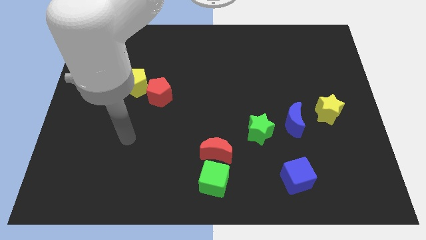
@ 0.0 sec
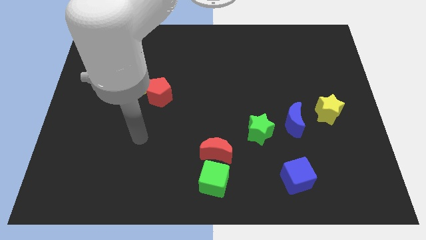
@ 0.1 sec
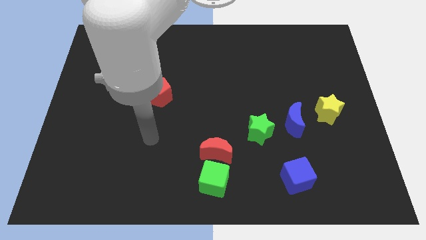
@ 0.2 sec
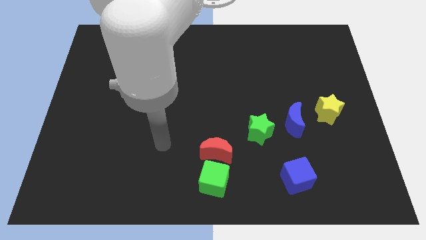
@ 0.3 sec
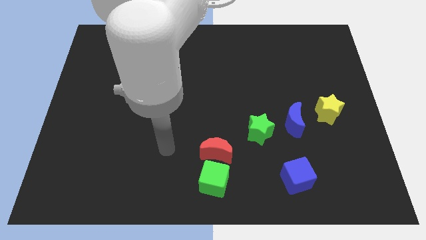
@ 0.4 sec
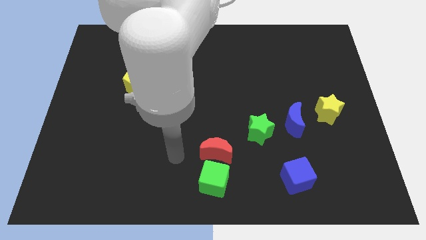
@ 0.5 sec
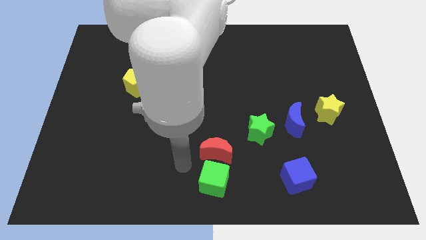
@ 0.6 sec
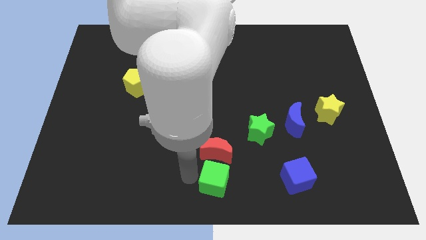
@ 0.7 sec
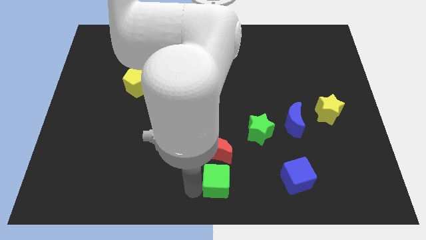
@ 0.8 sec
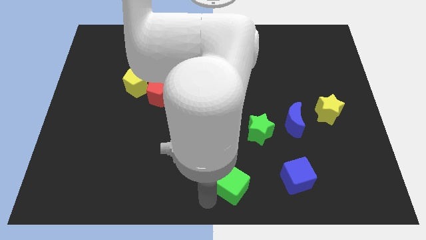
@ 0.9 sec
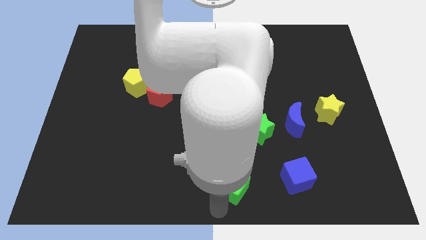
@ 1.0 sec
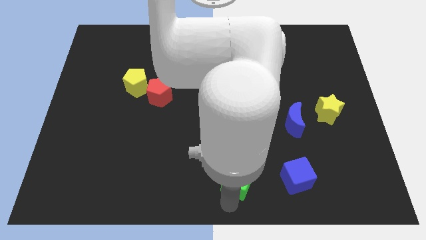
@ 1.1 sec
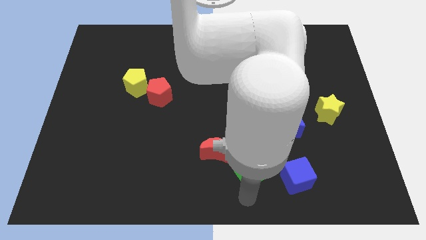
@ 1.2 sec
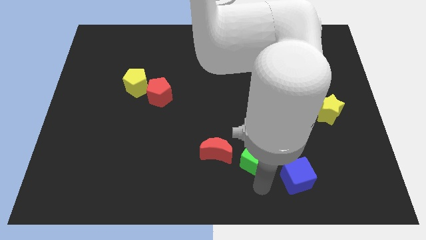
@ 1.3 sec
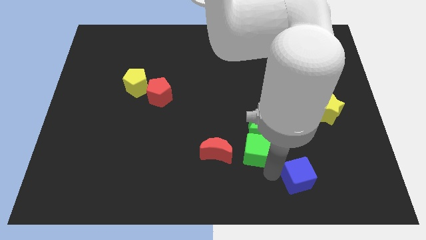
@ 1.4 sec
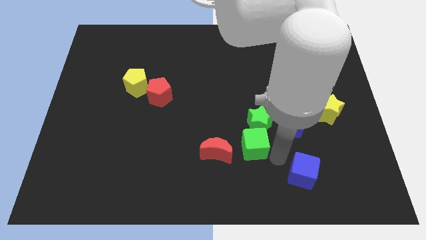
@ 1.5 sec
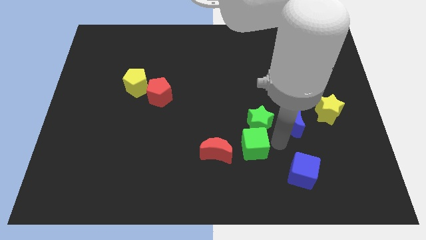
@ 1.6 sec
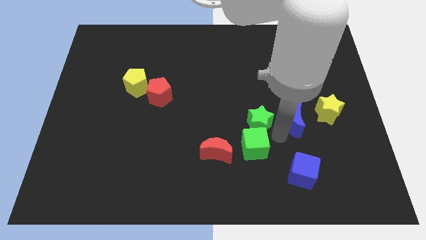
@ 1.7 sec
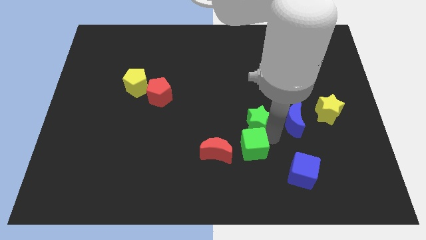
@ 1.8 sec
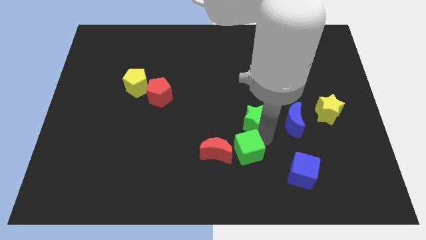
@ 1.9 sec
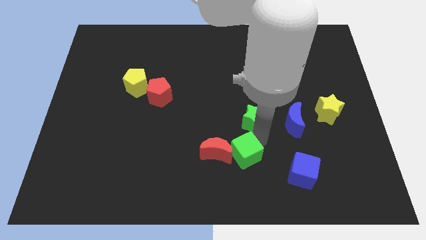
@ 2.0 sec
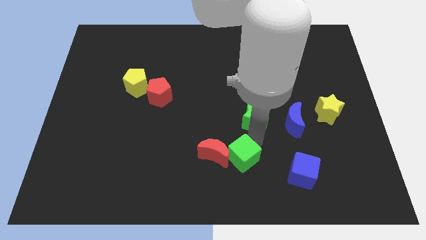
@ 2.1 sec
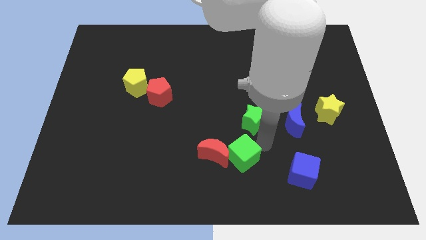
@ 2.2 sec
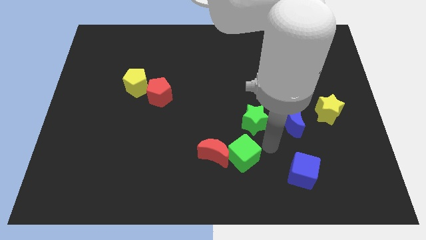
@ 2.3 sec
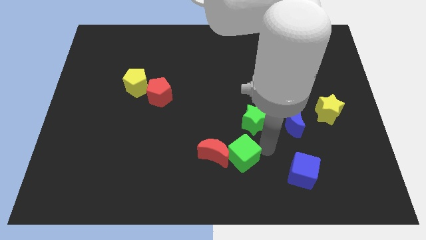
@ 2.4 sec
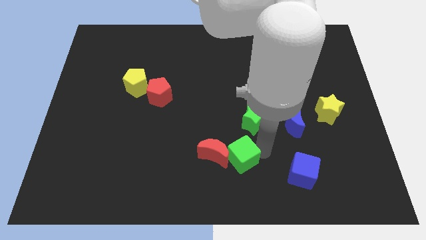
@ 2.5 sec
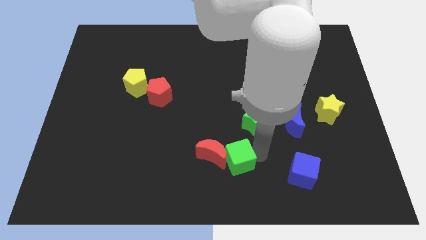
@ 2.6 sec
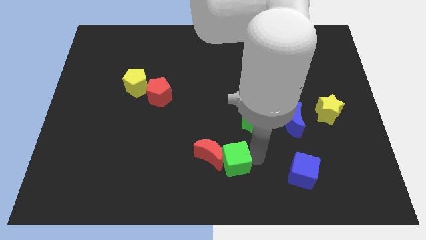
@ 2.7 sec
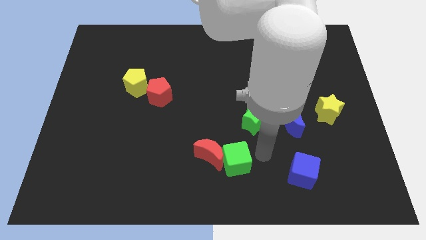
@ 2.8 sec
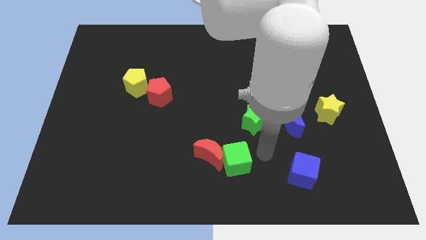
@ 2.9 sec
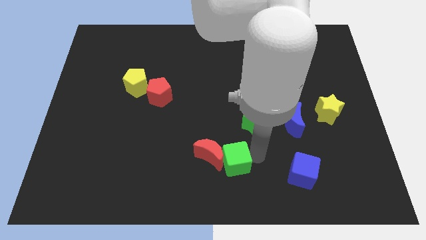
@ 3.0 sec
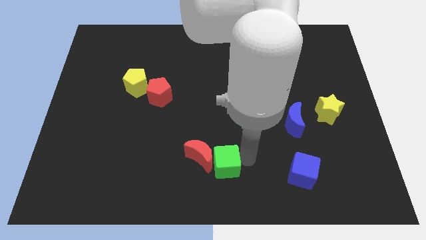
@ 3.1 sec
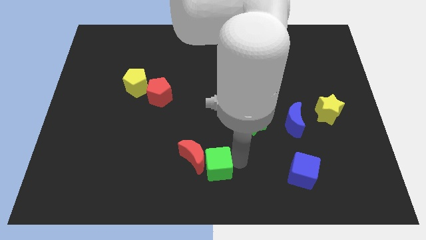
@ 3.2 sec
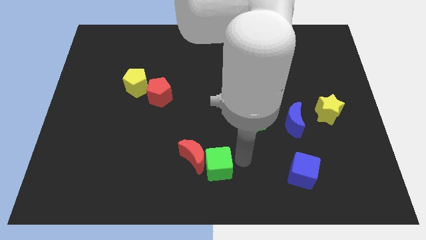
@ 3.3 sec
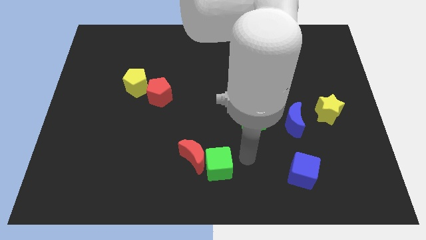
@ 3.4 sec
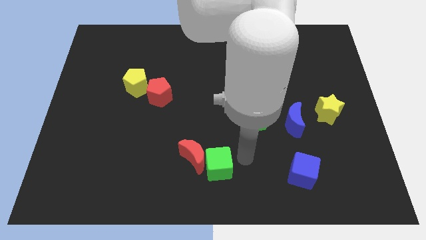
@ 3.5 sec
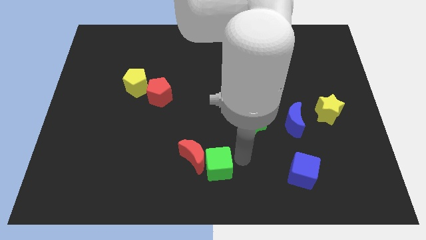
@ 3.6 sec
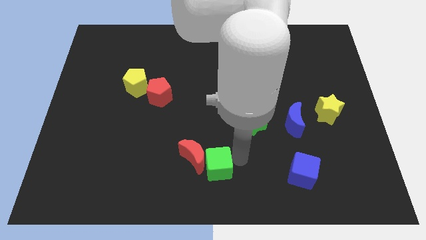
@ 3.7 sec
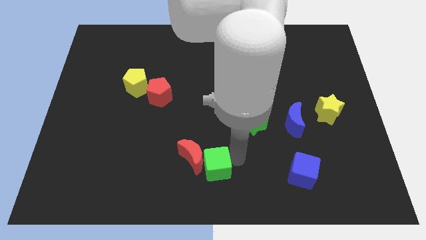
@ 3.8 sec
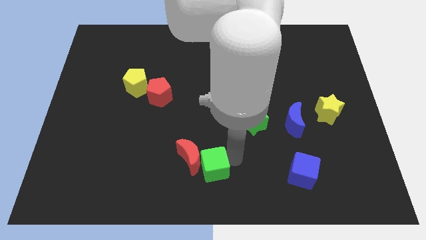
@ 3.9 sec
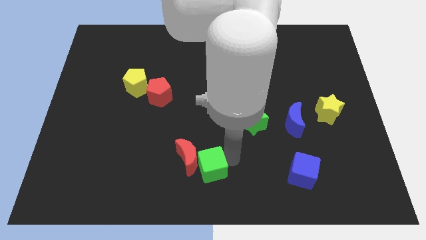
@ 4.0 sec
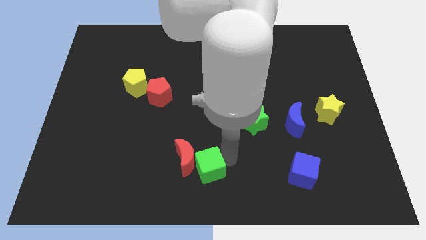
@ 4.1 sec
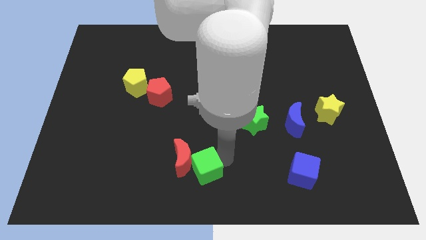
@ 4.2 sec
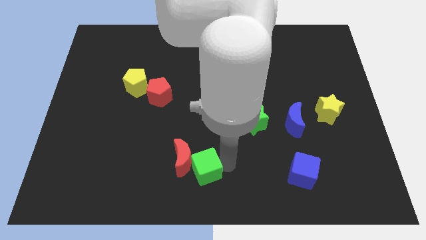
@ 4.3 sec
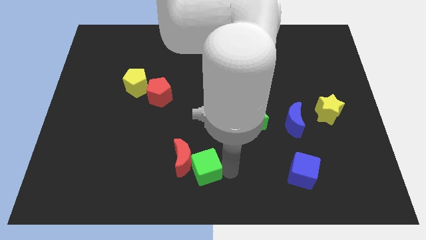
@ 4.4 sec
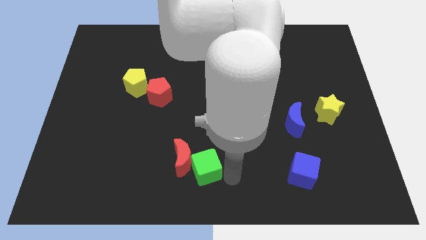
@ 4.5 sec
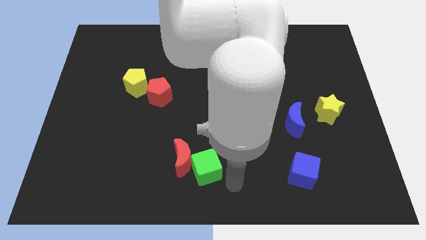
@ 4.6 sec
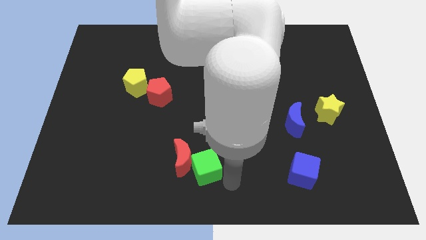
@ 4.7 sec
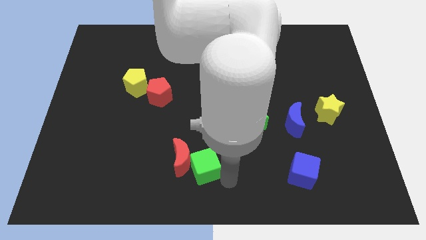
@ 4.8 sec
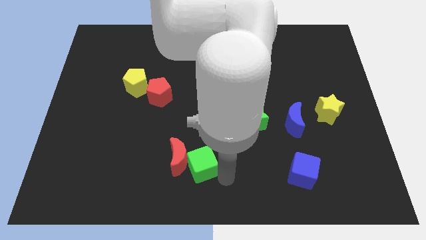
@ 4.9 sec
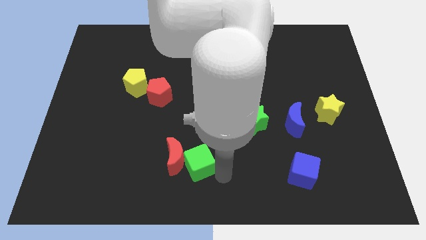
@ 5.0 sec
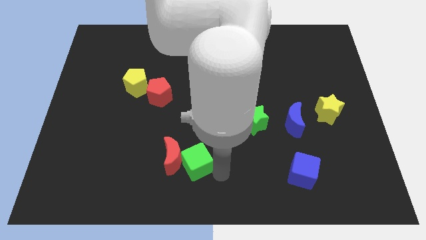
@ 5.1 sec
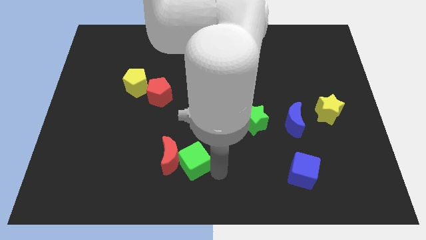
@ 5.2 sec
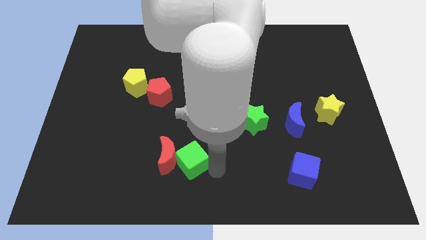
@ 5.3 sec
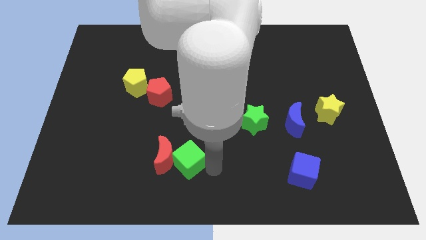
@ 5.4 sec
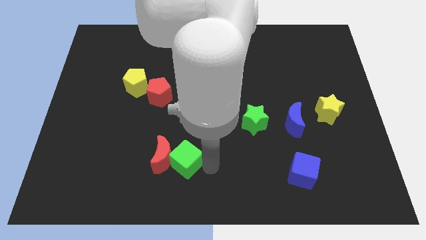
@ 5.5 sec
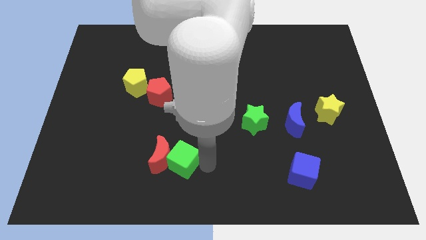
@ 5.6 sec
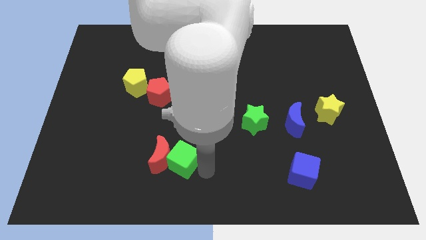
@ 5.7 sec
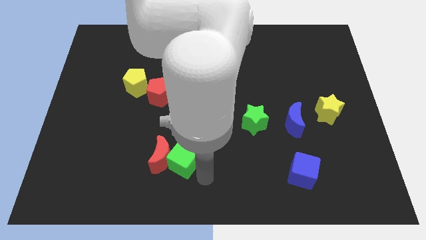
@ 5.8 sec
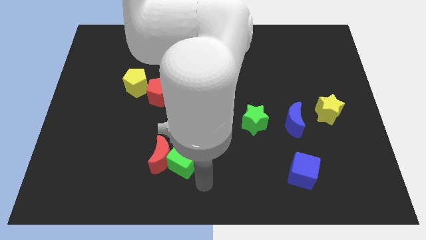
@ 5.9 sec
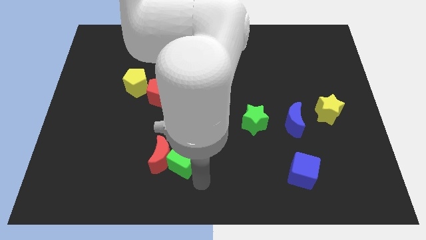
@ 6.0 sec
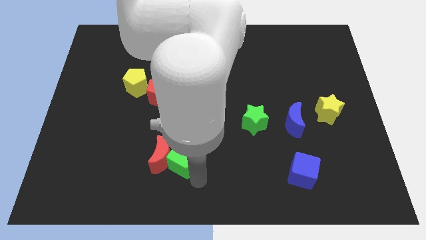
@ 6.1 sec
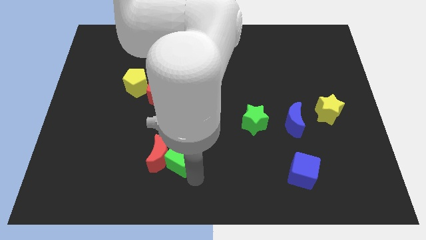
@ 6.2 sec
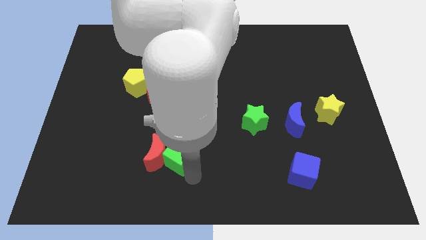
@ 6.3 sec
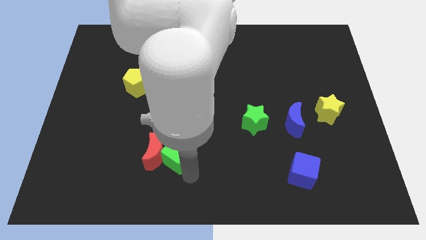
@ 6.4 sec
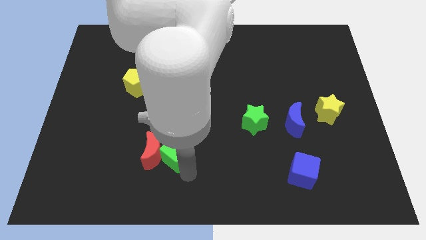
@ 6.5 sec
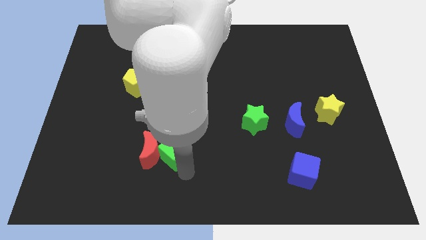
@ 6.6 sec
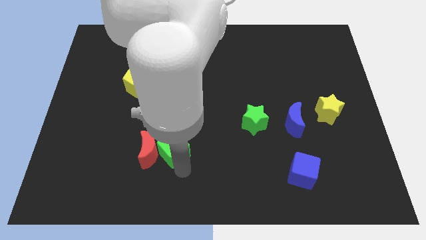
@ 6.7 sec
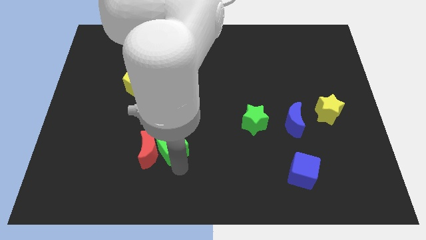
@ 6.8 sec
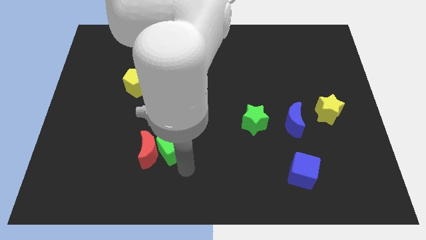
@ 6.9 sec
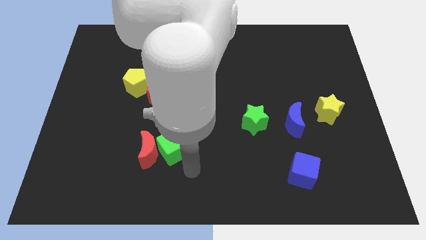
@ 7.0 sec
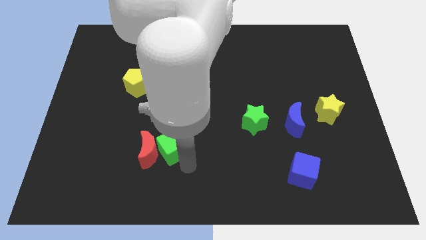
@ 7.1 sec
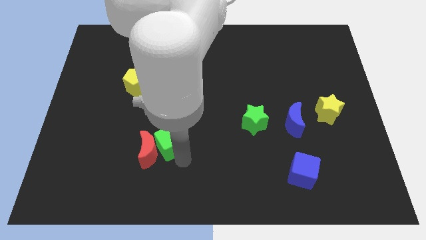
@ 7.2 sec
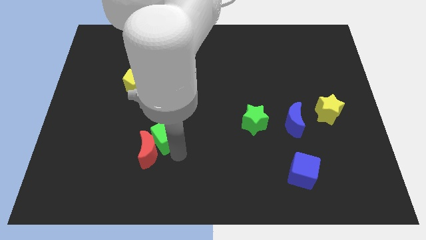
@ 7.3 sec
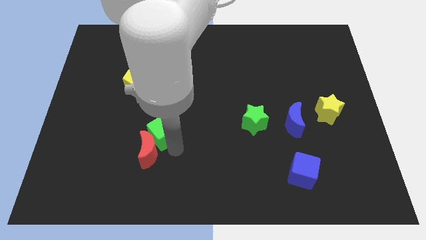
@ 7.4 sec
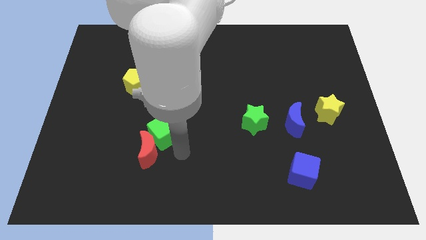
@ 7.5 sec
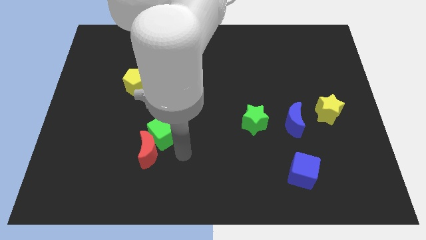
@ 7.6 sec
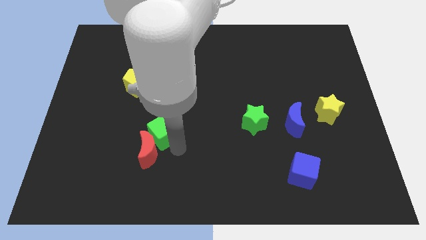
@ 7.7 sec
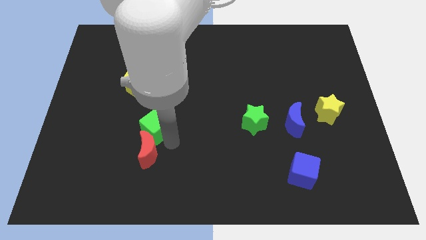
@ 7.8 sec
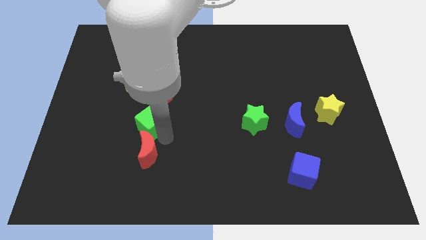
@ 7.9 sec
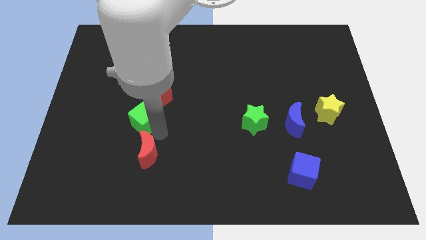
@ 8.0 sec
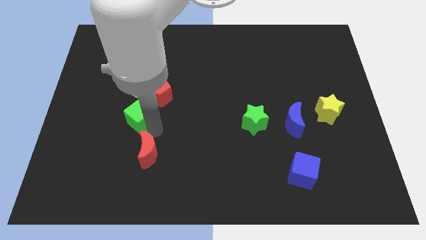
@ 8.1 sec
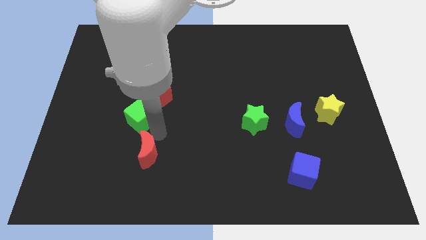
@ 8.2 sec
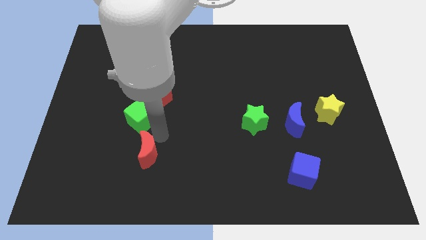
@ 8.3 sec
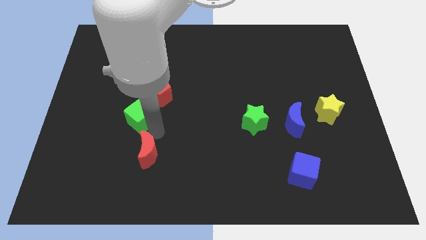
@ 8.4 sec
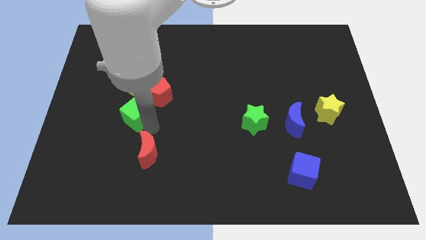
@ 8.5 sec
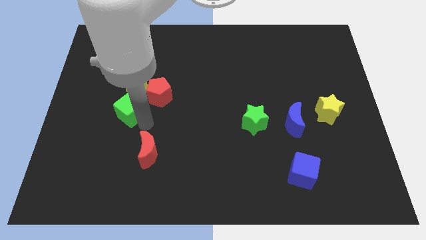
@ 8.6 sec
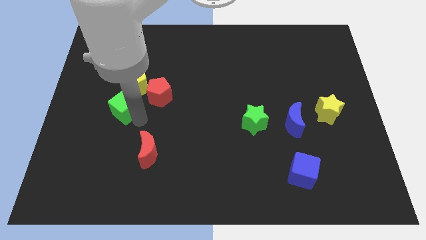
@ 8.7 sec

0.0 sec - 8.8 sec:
put the green cube just left of the red pentagon
